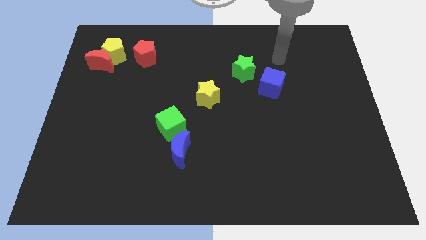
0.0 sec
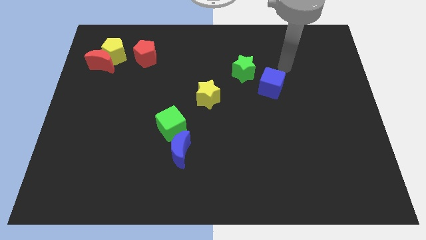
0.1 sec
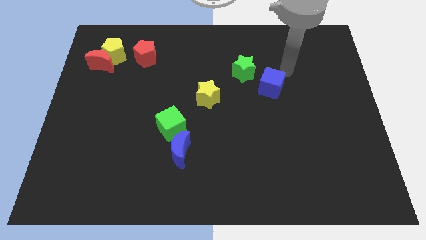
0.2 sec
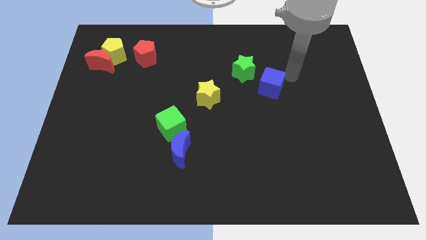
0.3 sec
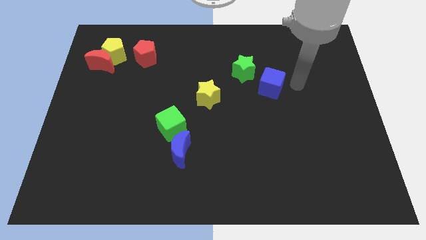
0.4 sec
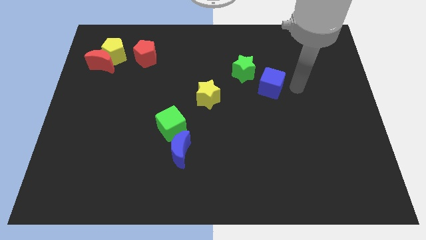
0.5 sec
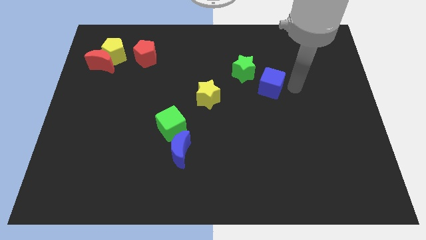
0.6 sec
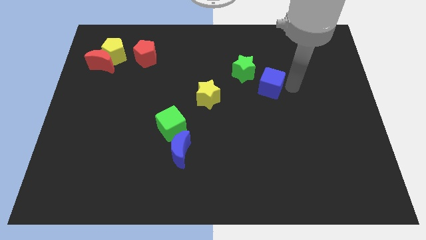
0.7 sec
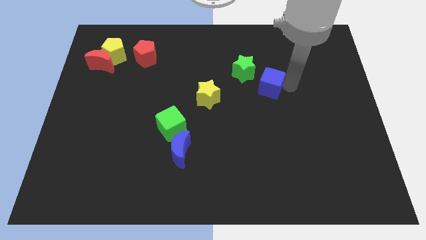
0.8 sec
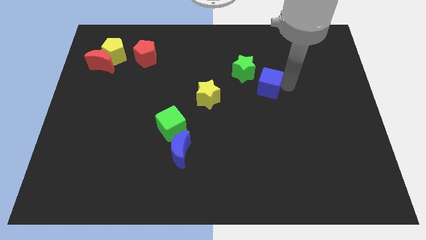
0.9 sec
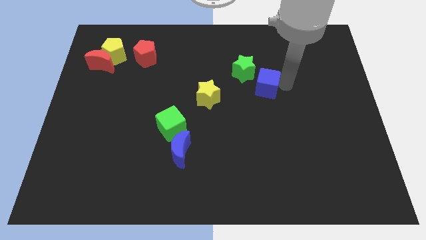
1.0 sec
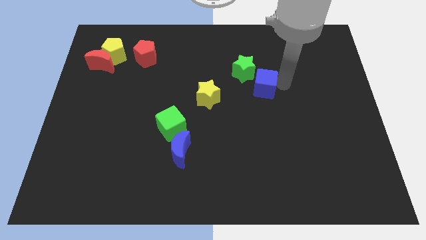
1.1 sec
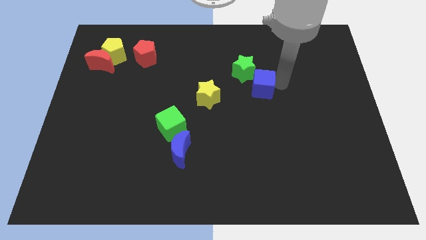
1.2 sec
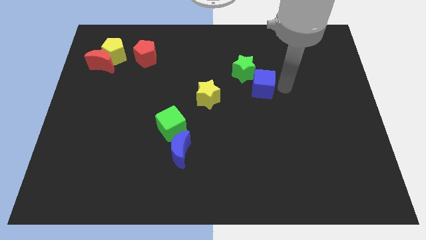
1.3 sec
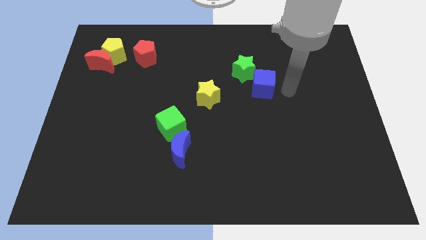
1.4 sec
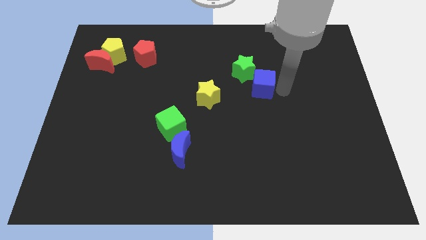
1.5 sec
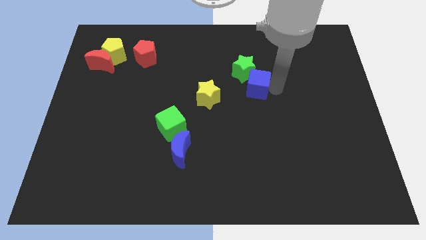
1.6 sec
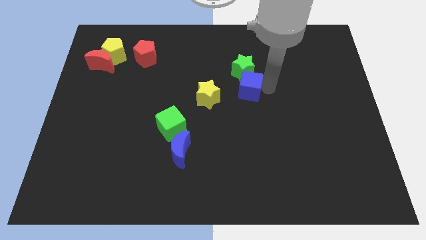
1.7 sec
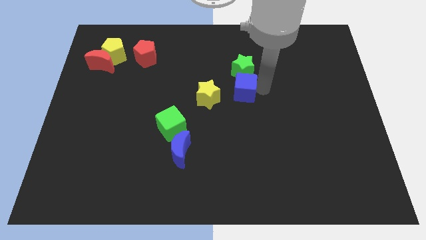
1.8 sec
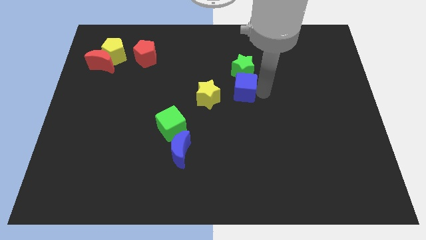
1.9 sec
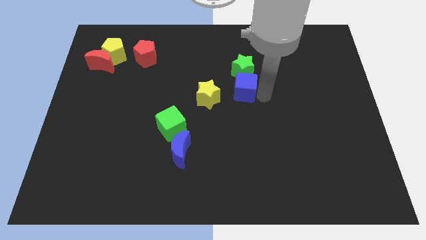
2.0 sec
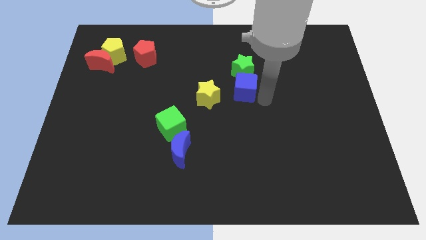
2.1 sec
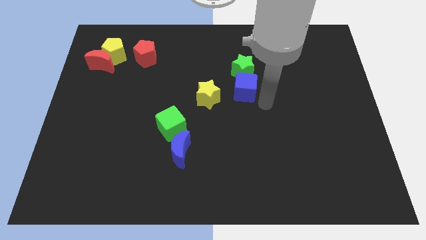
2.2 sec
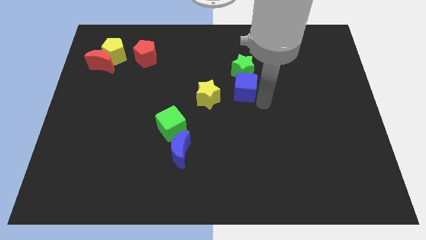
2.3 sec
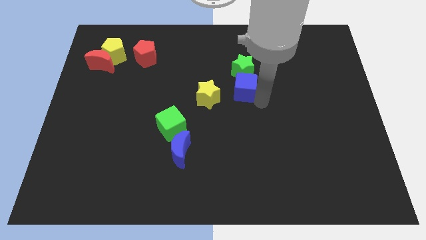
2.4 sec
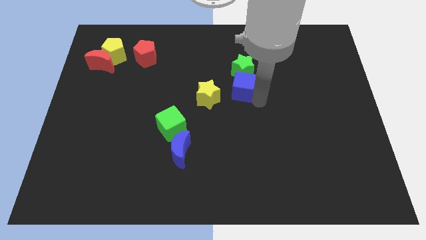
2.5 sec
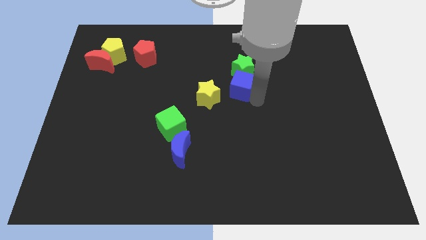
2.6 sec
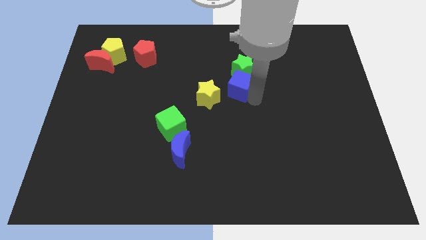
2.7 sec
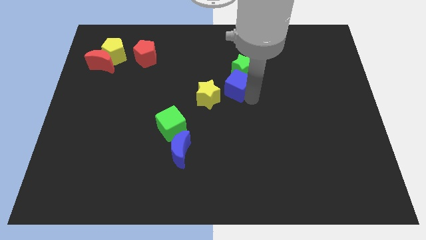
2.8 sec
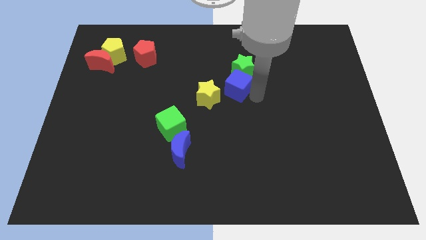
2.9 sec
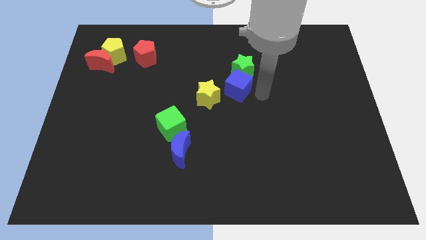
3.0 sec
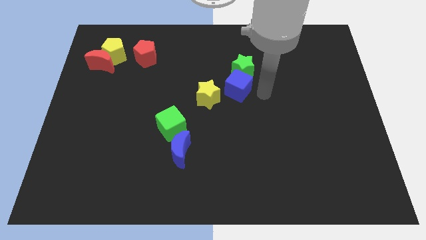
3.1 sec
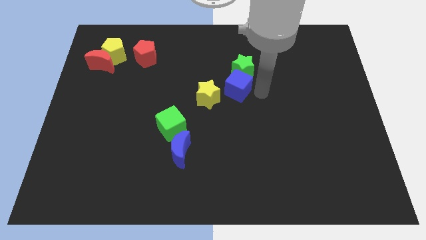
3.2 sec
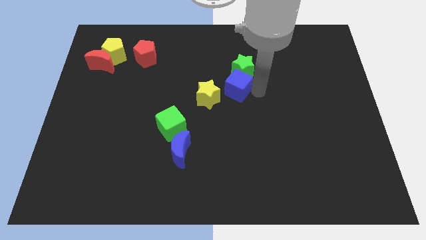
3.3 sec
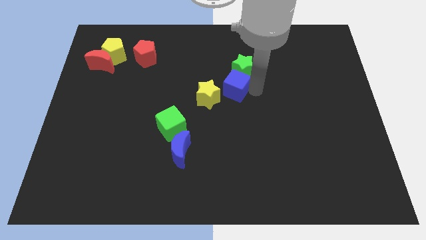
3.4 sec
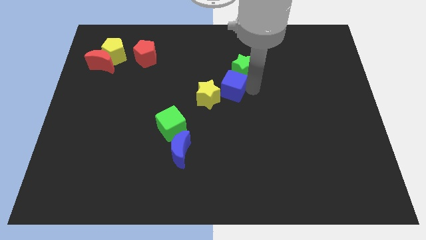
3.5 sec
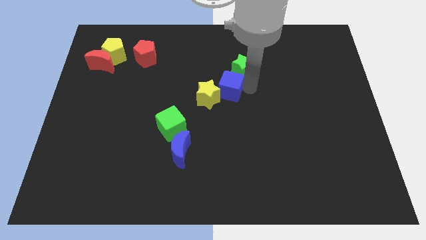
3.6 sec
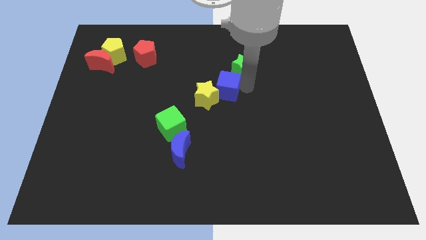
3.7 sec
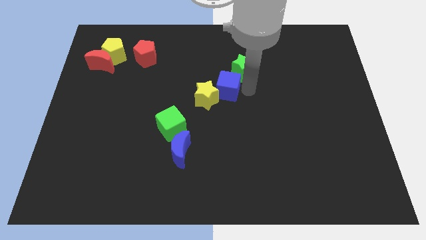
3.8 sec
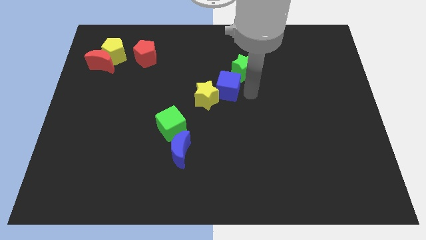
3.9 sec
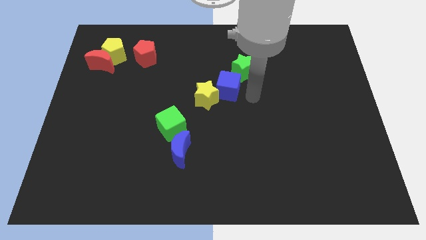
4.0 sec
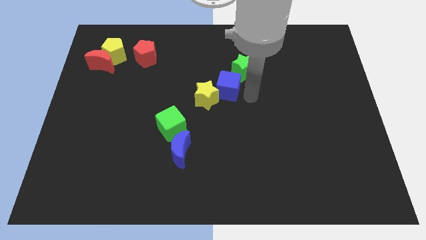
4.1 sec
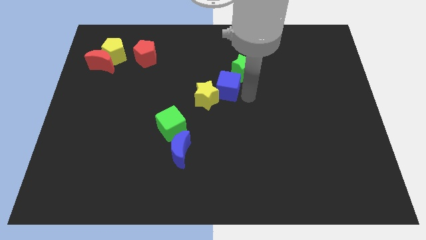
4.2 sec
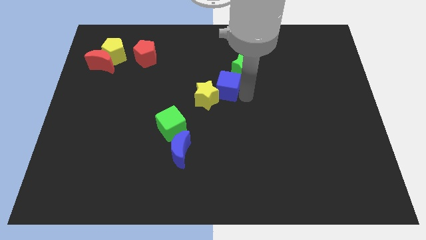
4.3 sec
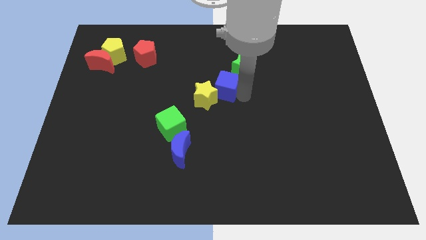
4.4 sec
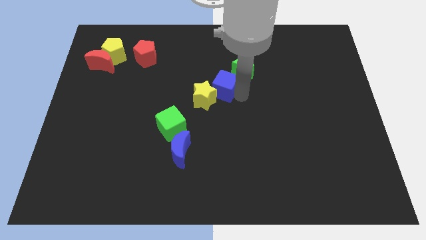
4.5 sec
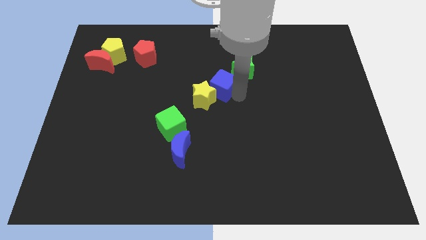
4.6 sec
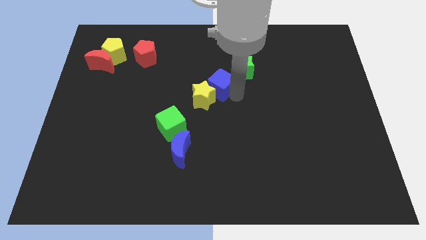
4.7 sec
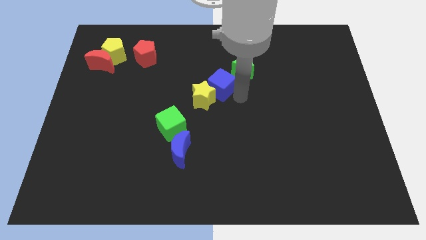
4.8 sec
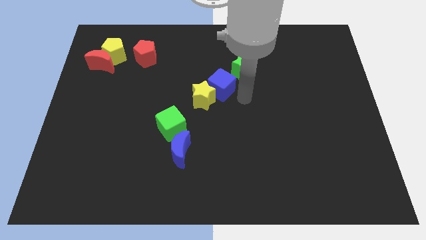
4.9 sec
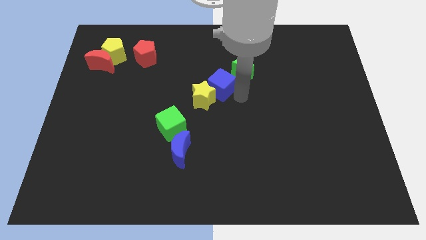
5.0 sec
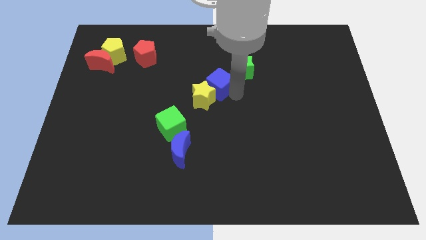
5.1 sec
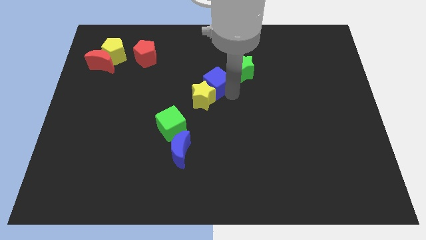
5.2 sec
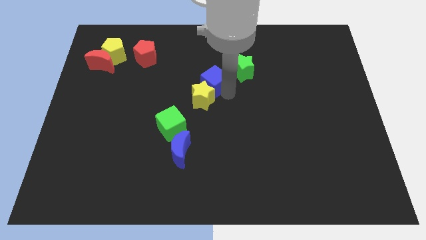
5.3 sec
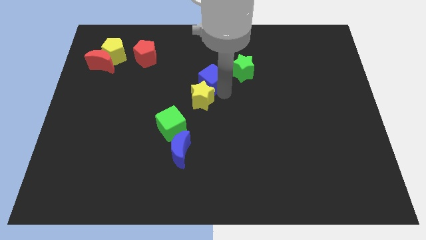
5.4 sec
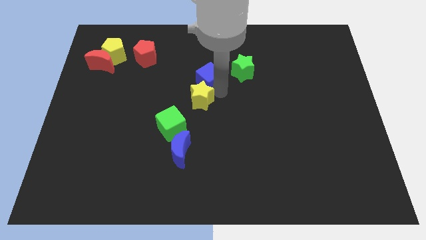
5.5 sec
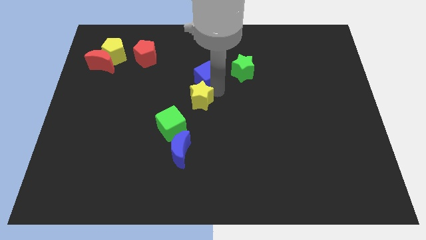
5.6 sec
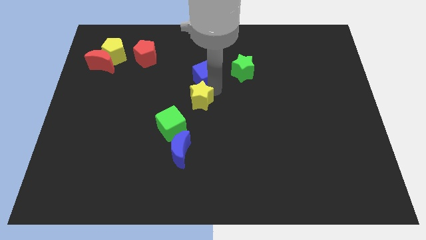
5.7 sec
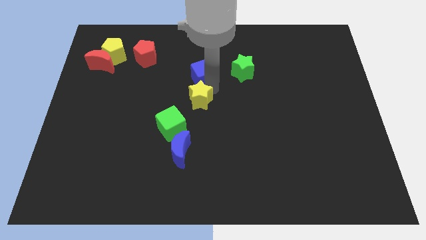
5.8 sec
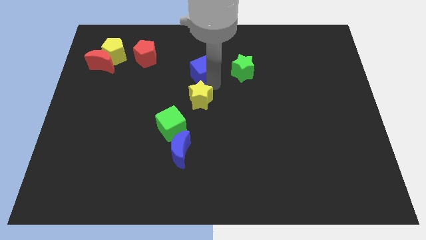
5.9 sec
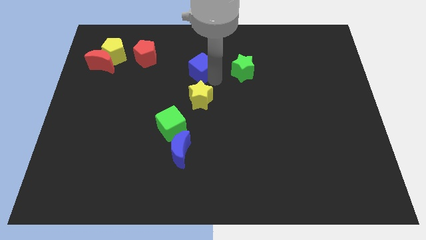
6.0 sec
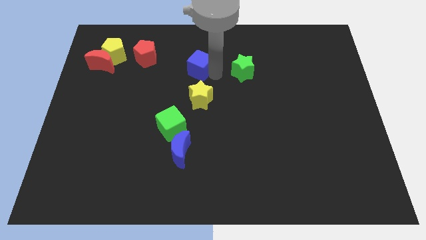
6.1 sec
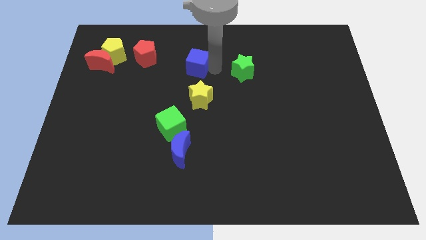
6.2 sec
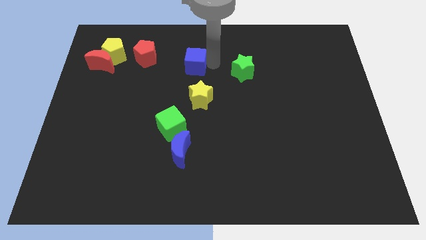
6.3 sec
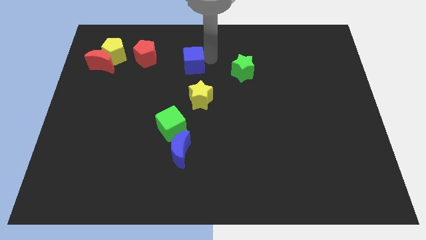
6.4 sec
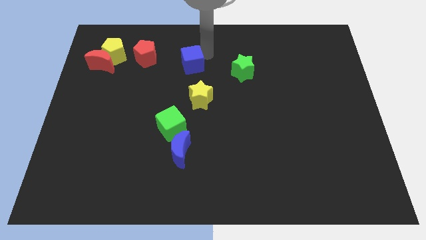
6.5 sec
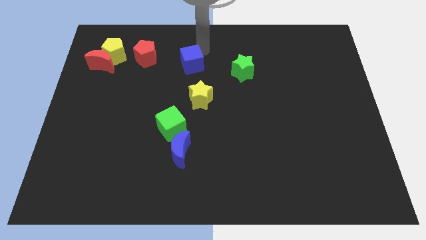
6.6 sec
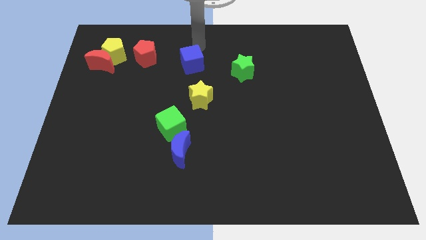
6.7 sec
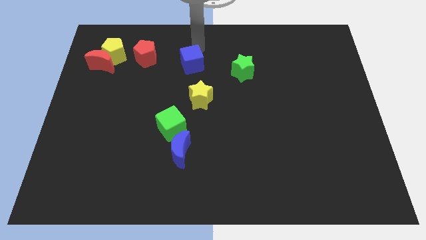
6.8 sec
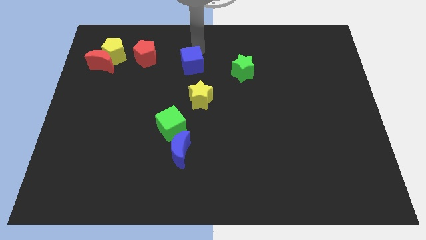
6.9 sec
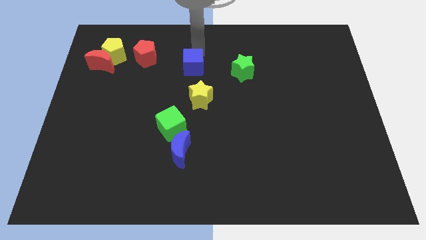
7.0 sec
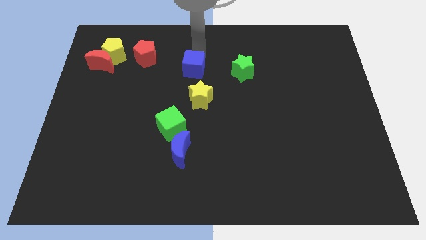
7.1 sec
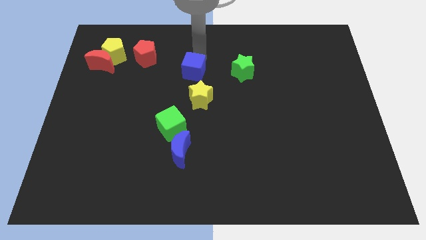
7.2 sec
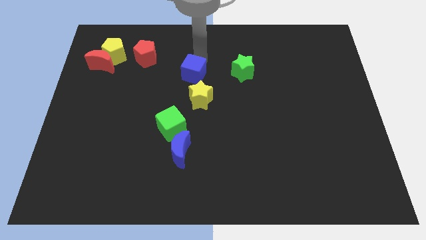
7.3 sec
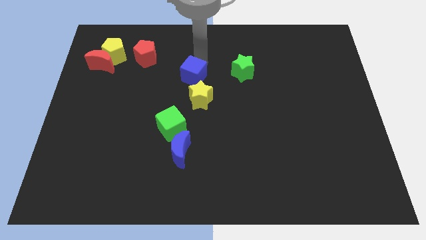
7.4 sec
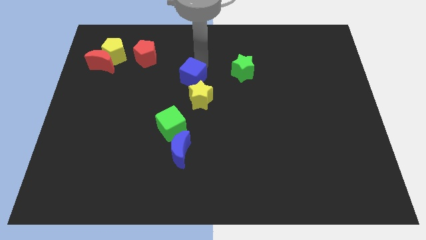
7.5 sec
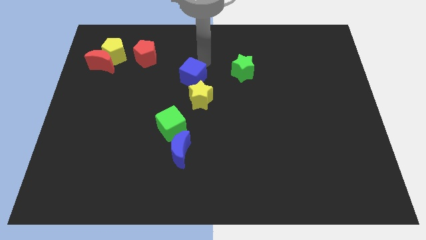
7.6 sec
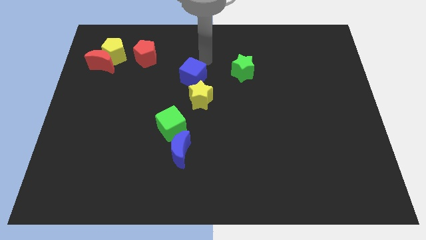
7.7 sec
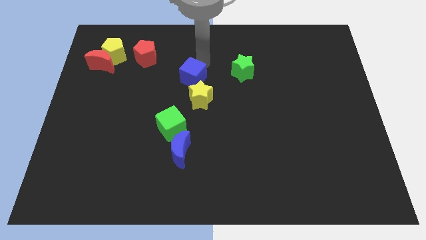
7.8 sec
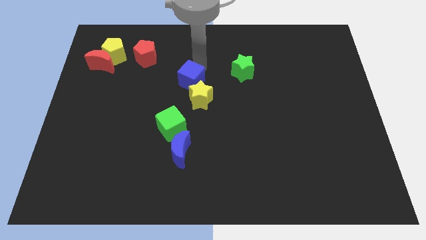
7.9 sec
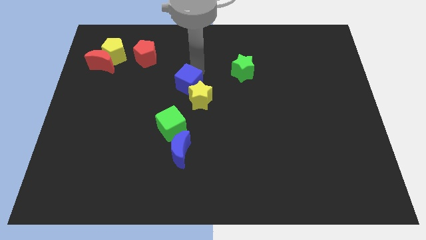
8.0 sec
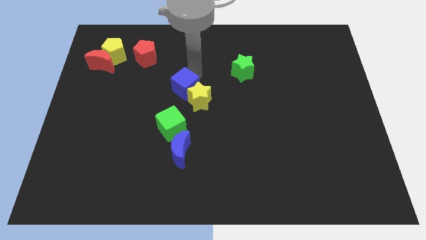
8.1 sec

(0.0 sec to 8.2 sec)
put the blue cube left of the yellow star
